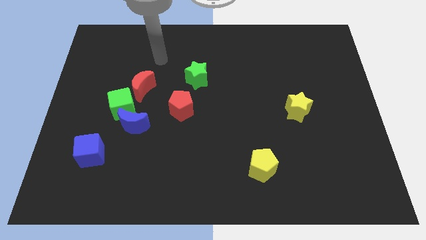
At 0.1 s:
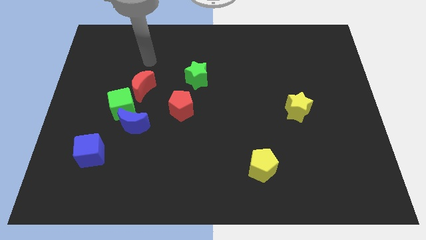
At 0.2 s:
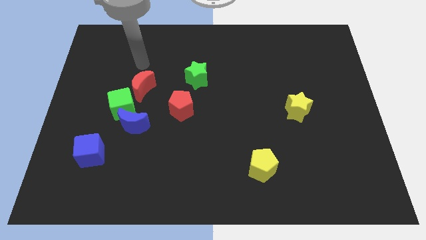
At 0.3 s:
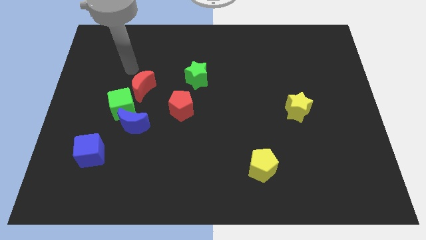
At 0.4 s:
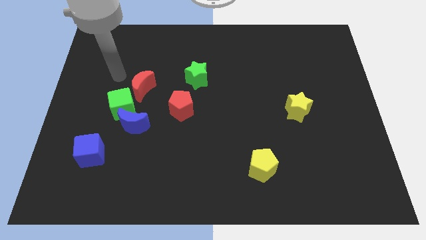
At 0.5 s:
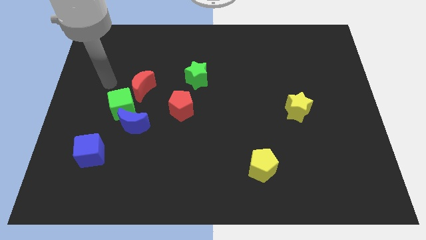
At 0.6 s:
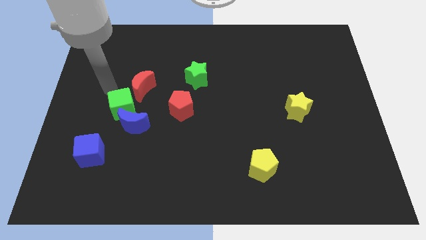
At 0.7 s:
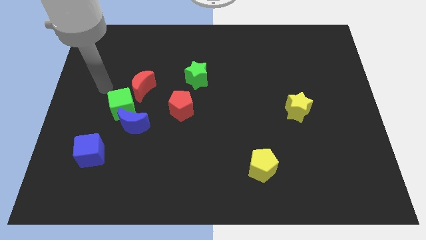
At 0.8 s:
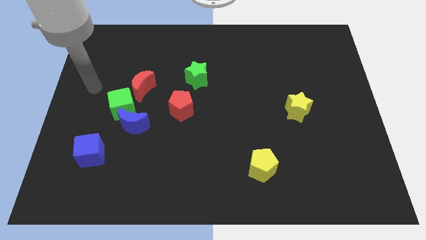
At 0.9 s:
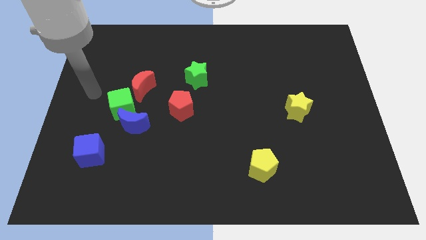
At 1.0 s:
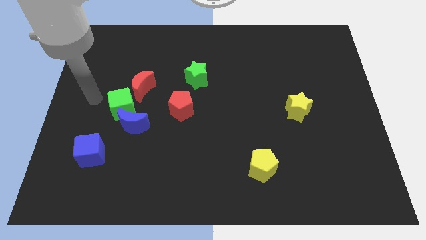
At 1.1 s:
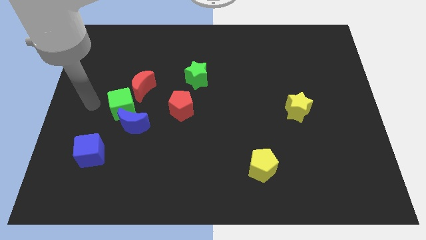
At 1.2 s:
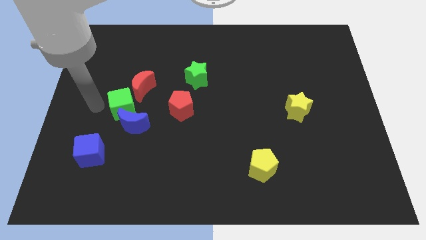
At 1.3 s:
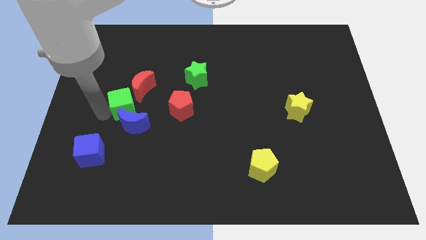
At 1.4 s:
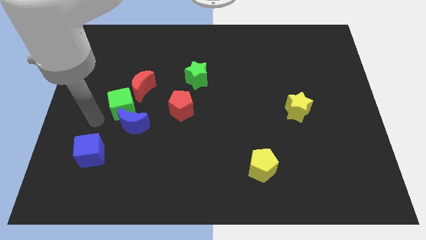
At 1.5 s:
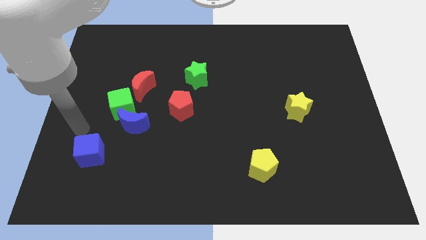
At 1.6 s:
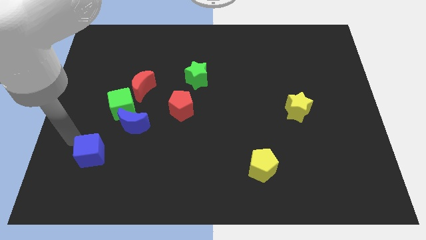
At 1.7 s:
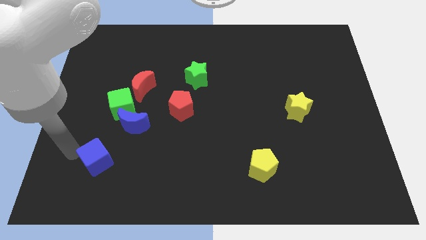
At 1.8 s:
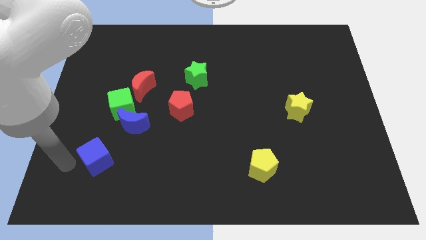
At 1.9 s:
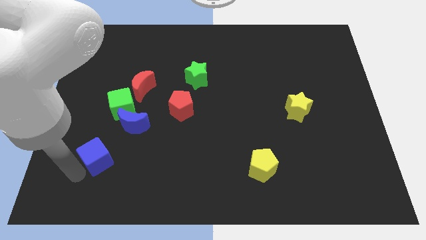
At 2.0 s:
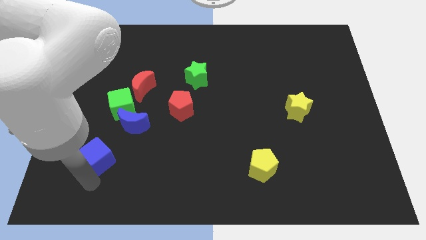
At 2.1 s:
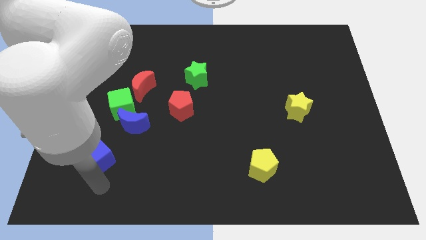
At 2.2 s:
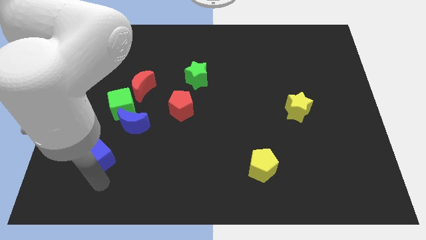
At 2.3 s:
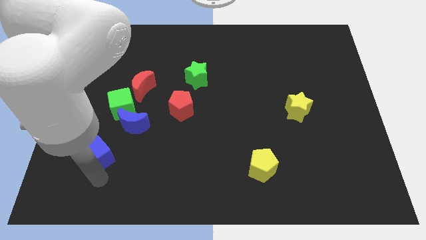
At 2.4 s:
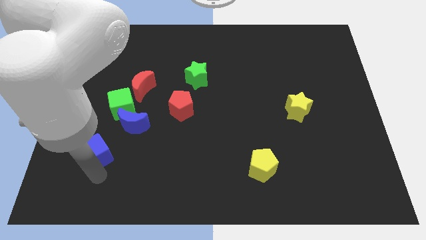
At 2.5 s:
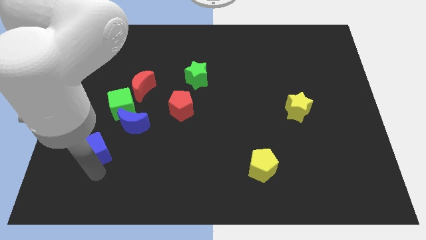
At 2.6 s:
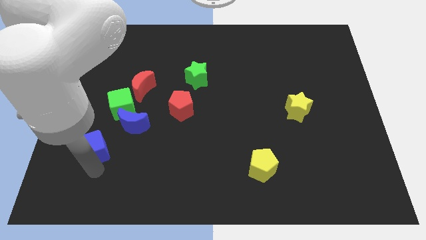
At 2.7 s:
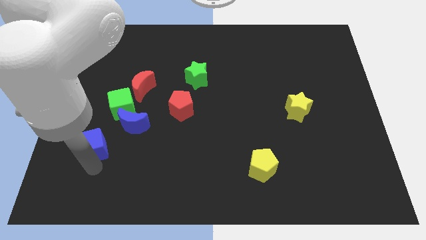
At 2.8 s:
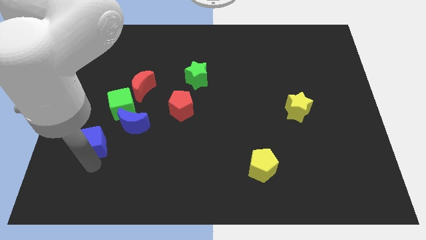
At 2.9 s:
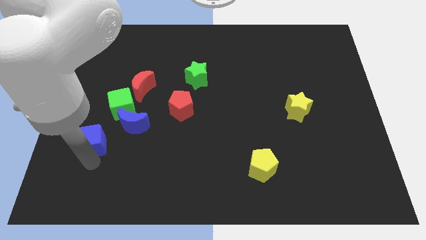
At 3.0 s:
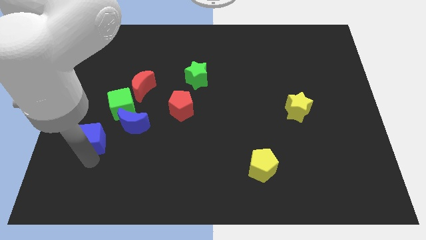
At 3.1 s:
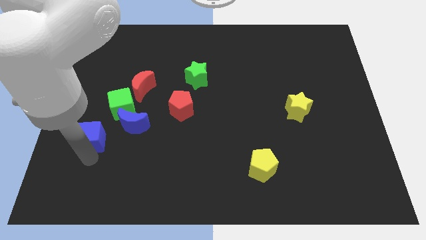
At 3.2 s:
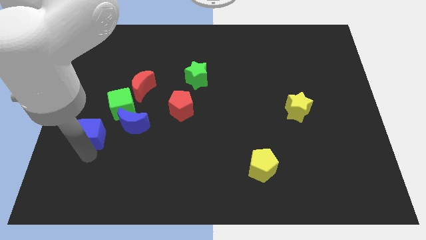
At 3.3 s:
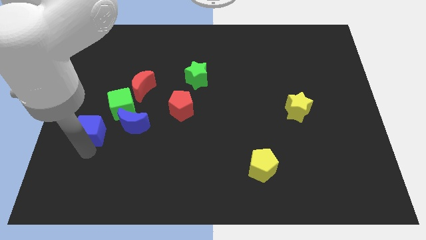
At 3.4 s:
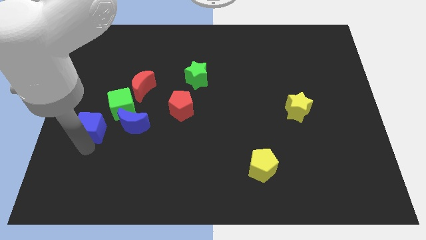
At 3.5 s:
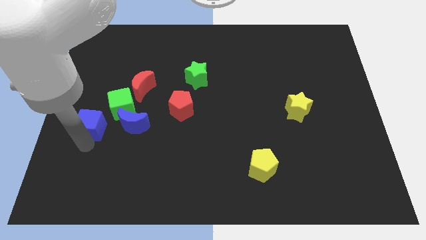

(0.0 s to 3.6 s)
slide the blue cube up a little bit

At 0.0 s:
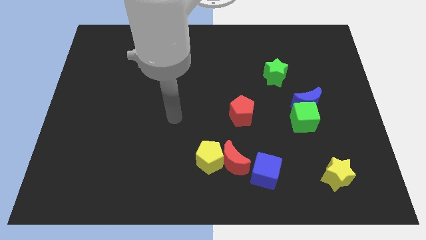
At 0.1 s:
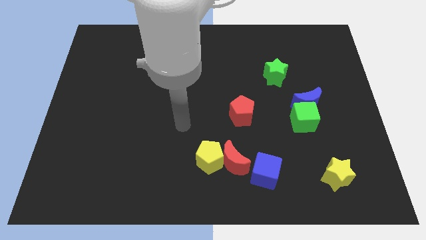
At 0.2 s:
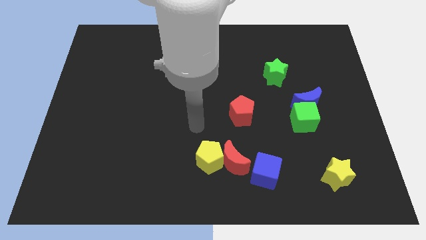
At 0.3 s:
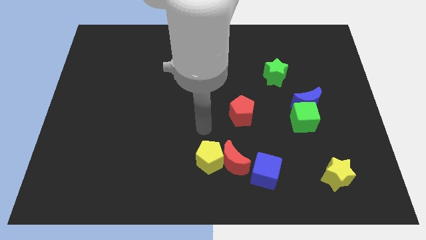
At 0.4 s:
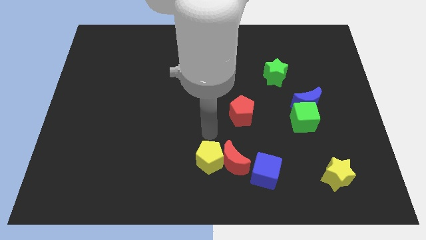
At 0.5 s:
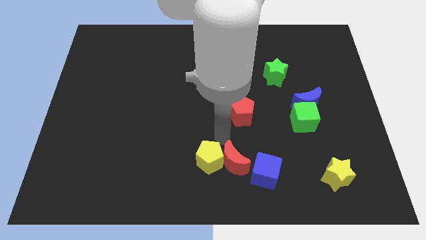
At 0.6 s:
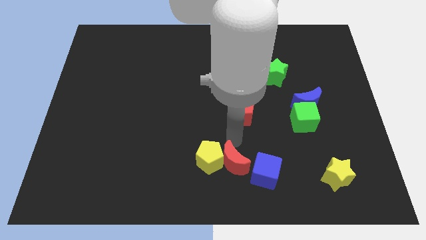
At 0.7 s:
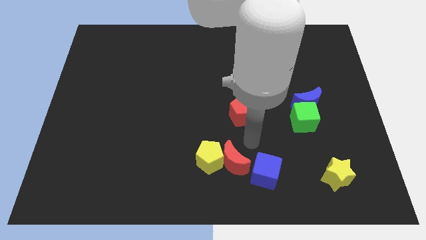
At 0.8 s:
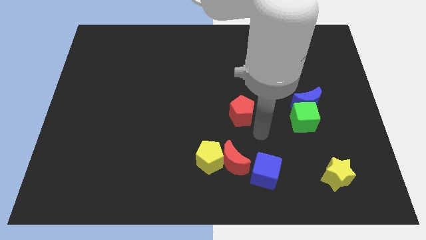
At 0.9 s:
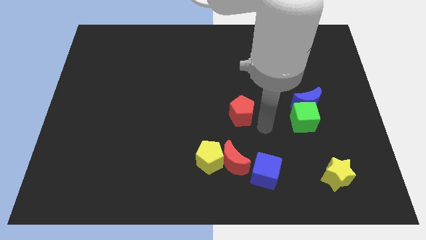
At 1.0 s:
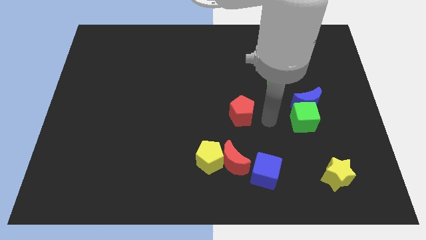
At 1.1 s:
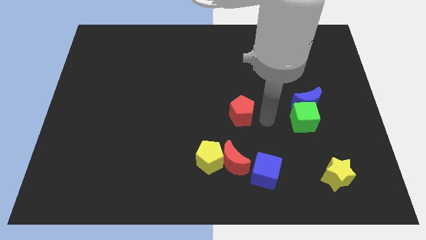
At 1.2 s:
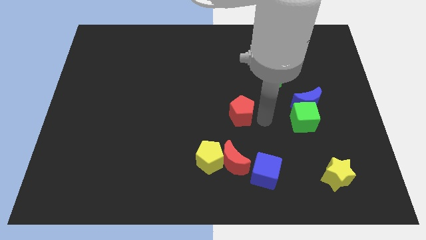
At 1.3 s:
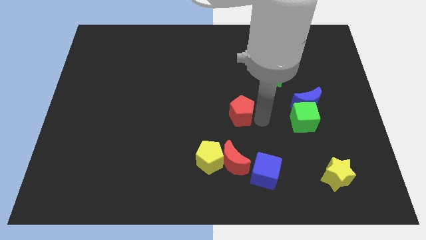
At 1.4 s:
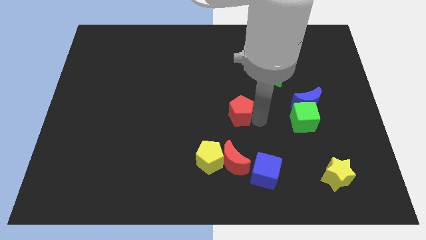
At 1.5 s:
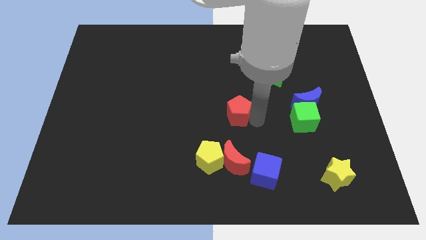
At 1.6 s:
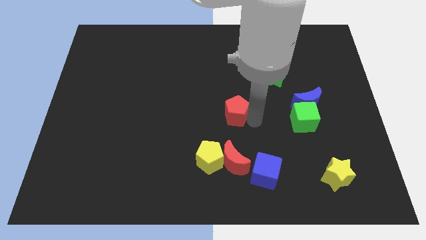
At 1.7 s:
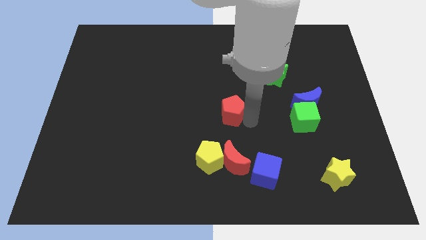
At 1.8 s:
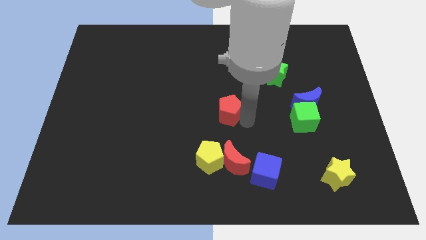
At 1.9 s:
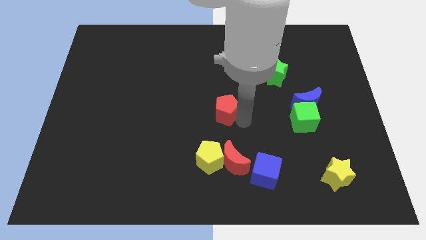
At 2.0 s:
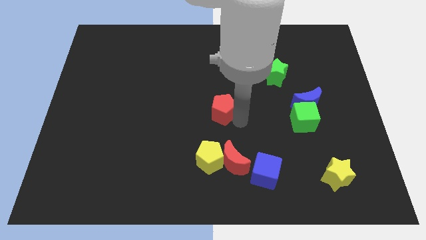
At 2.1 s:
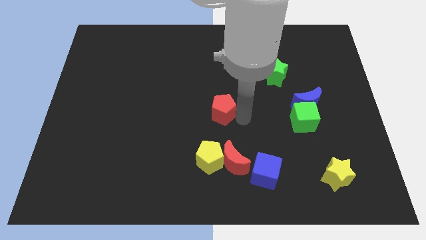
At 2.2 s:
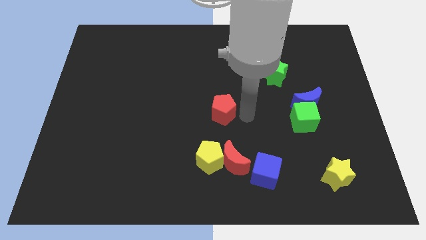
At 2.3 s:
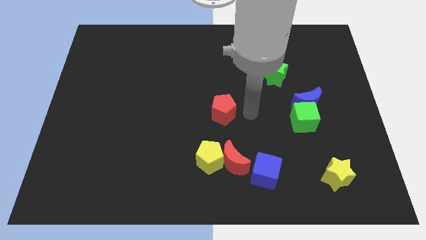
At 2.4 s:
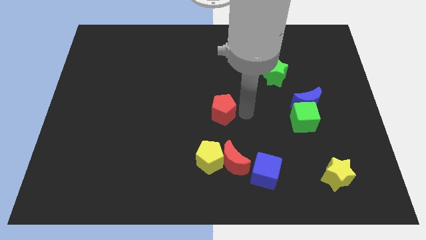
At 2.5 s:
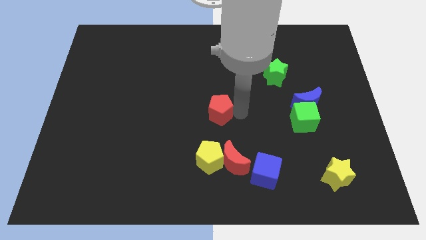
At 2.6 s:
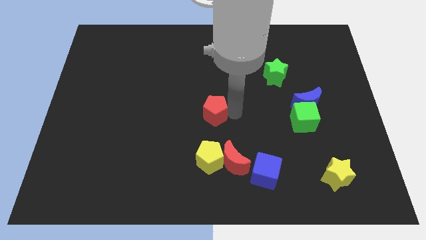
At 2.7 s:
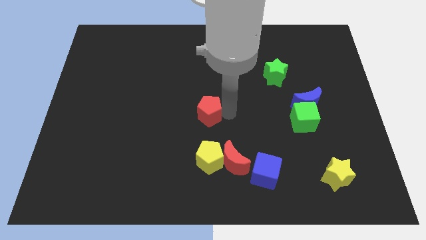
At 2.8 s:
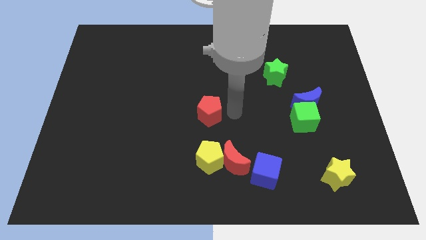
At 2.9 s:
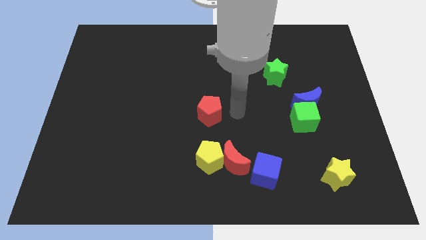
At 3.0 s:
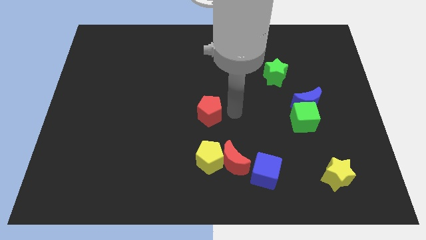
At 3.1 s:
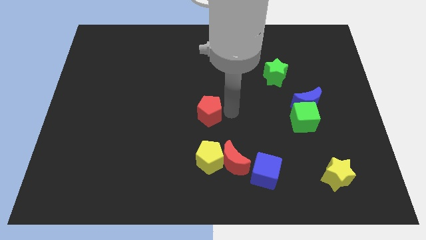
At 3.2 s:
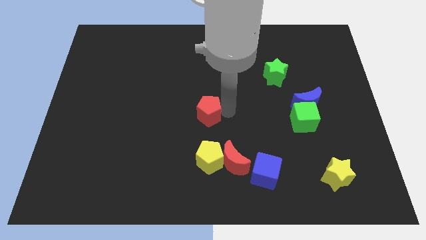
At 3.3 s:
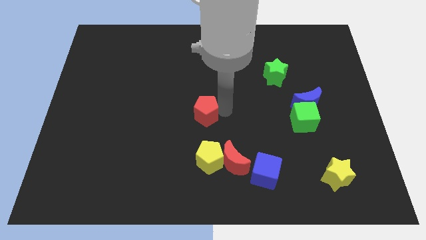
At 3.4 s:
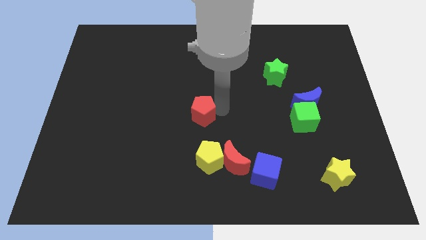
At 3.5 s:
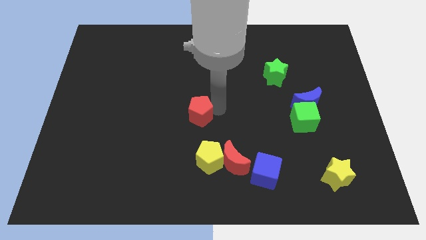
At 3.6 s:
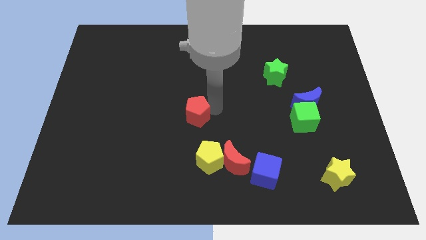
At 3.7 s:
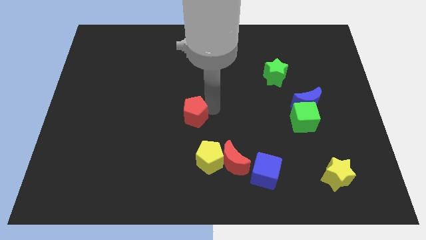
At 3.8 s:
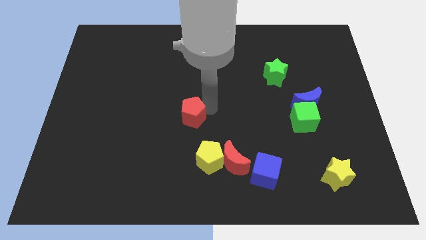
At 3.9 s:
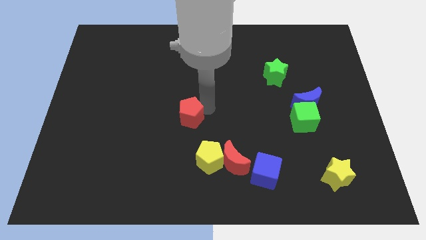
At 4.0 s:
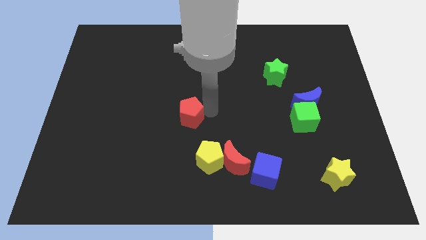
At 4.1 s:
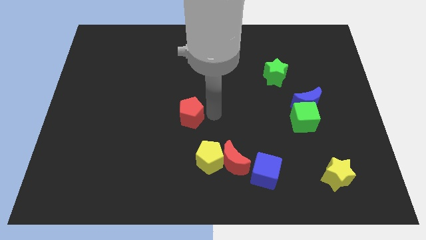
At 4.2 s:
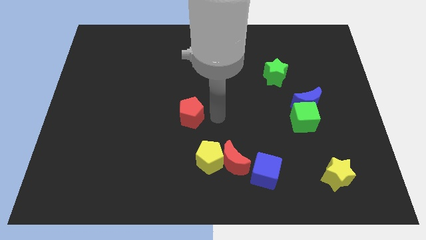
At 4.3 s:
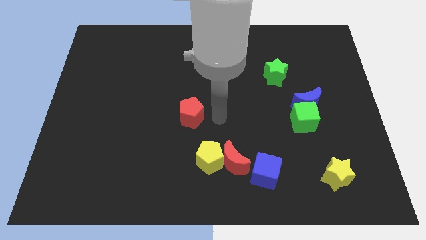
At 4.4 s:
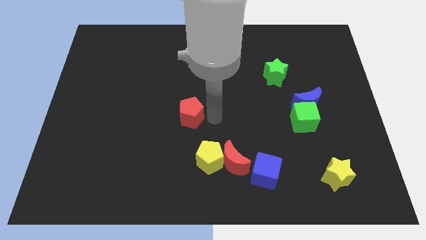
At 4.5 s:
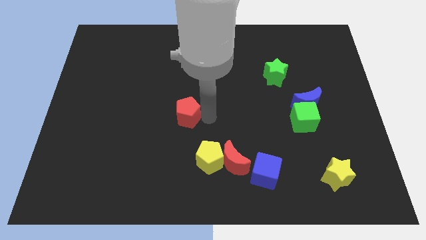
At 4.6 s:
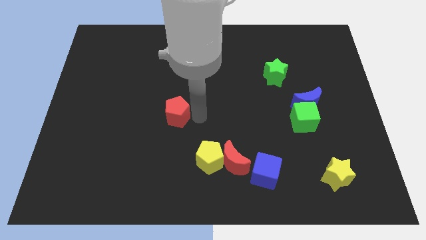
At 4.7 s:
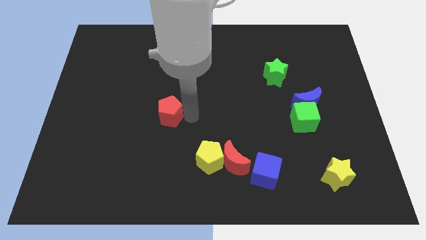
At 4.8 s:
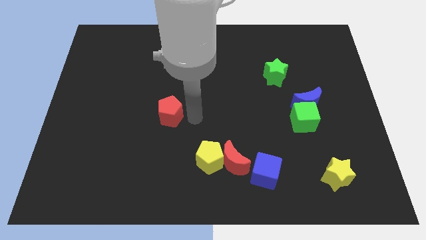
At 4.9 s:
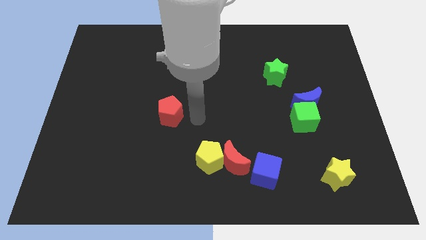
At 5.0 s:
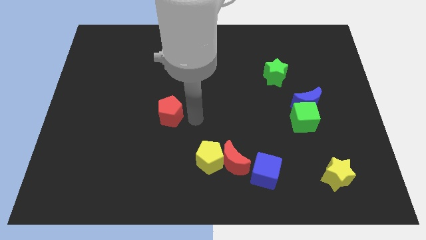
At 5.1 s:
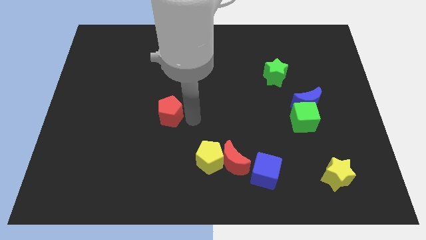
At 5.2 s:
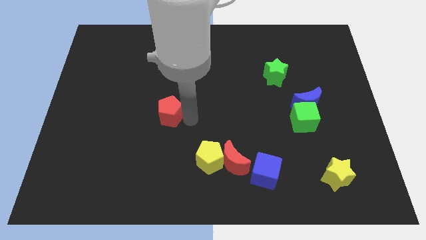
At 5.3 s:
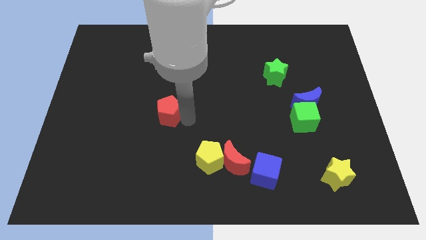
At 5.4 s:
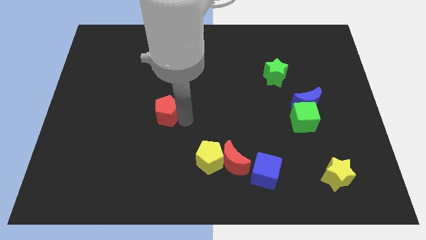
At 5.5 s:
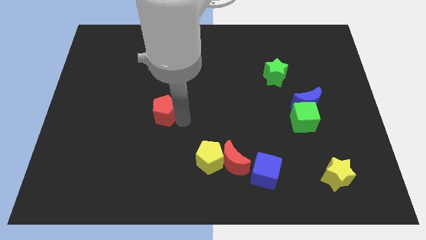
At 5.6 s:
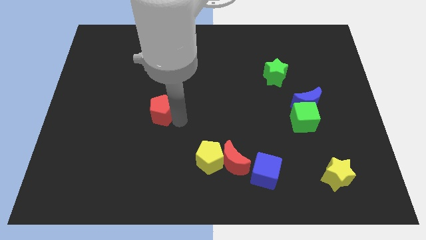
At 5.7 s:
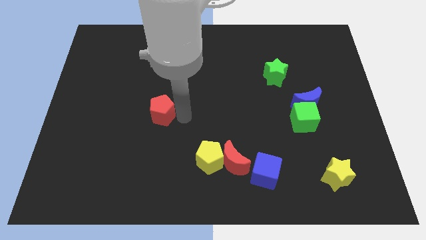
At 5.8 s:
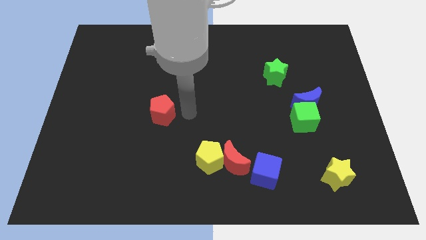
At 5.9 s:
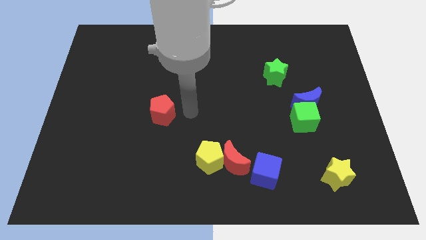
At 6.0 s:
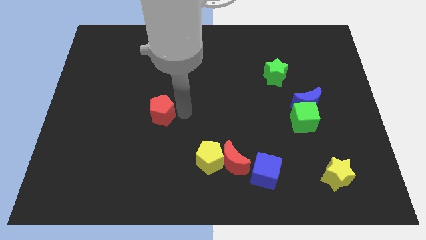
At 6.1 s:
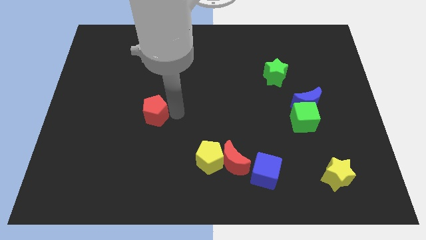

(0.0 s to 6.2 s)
move the red pentagon left
